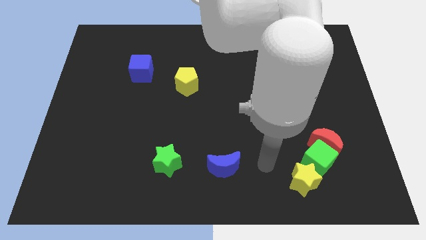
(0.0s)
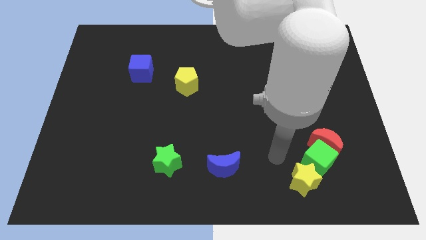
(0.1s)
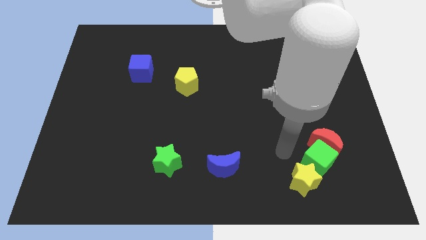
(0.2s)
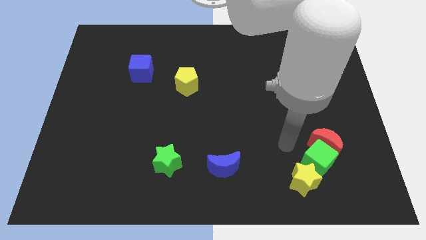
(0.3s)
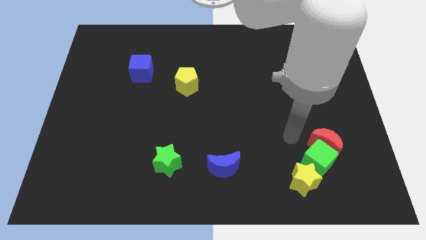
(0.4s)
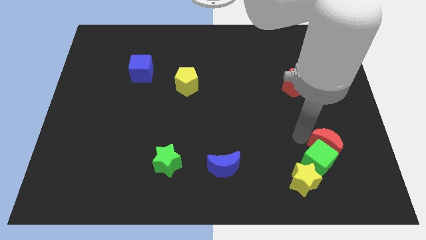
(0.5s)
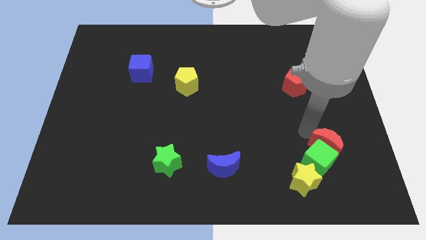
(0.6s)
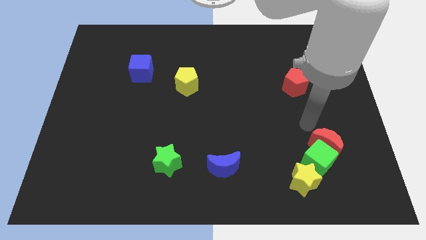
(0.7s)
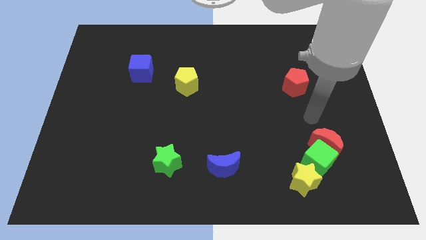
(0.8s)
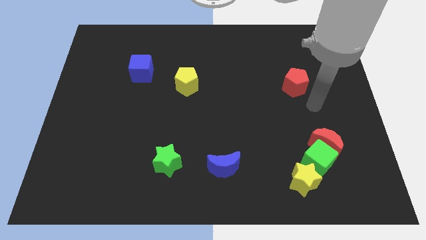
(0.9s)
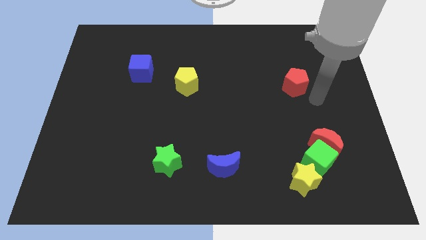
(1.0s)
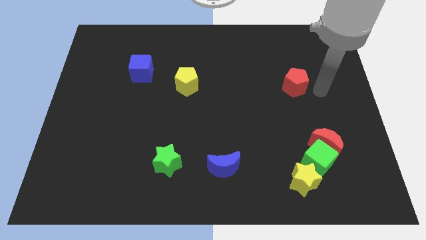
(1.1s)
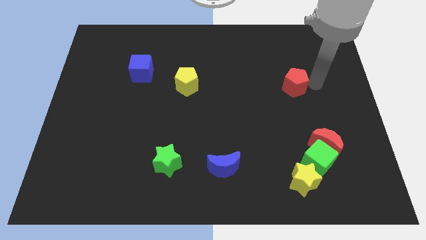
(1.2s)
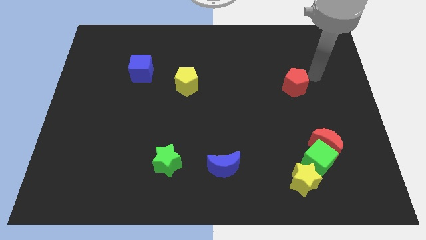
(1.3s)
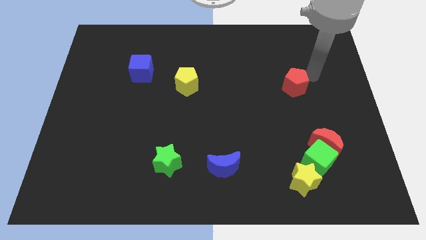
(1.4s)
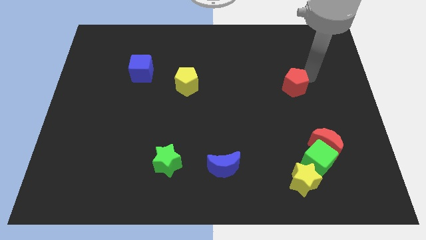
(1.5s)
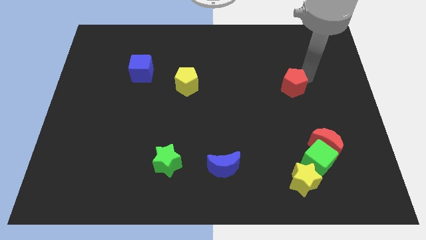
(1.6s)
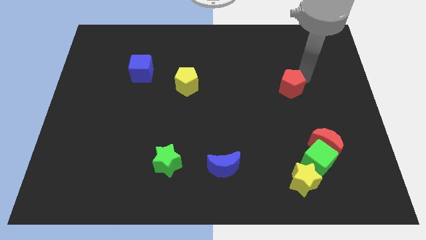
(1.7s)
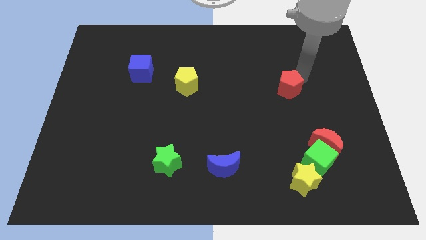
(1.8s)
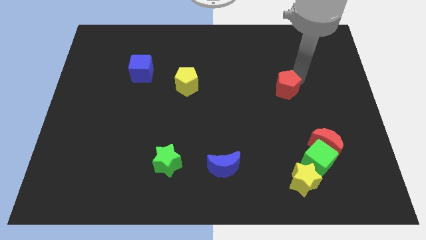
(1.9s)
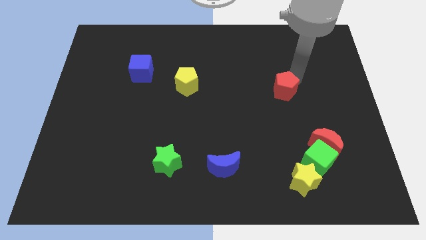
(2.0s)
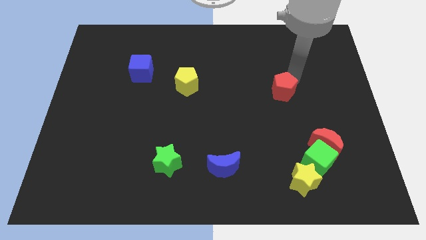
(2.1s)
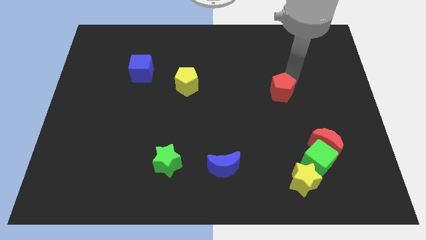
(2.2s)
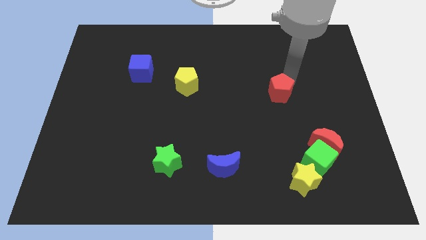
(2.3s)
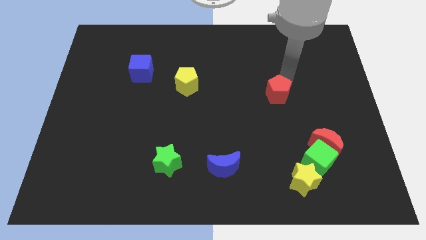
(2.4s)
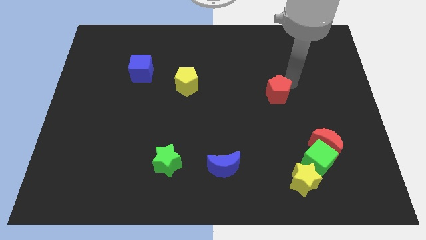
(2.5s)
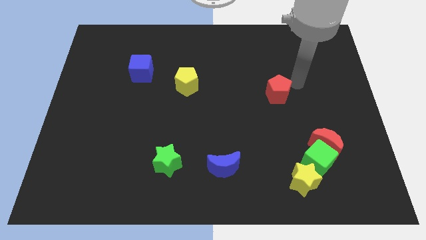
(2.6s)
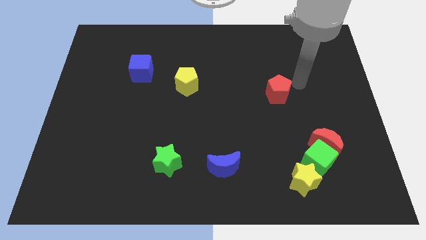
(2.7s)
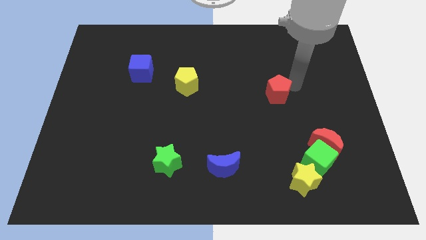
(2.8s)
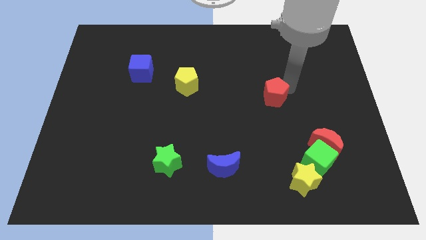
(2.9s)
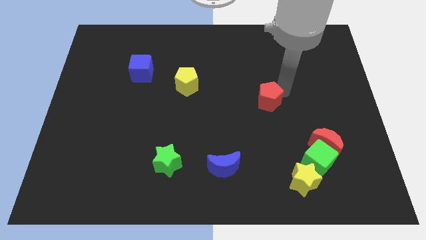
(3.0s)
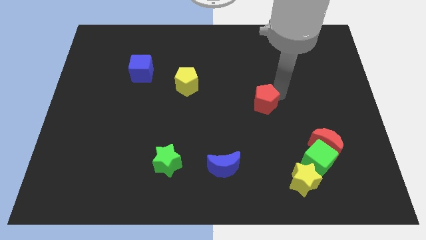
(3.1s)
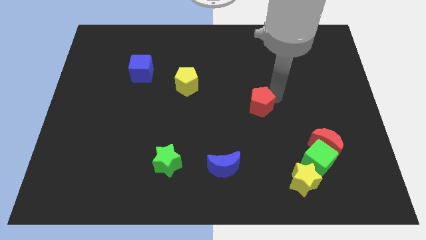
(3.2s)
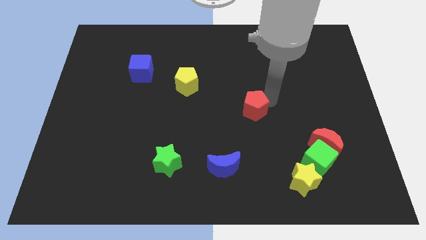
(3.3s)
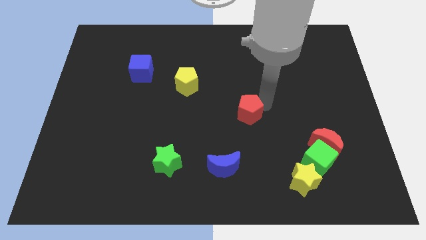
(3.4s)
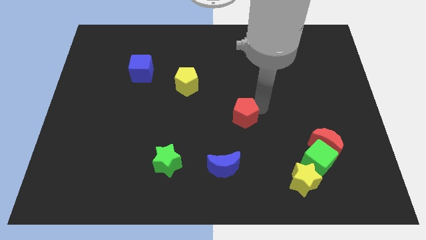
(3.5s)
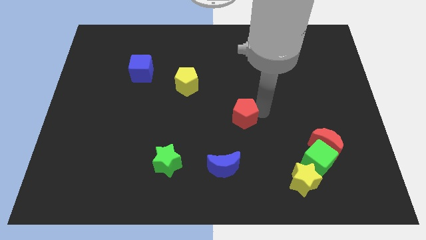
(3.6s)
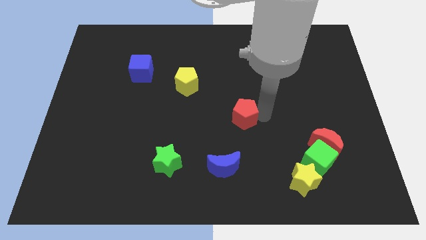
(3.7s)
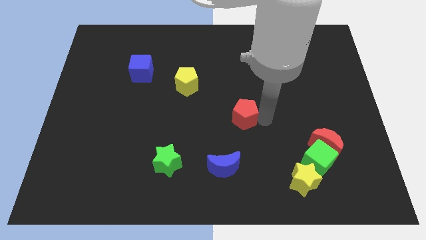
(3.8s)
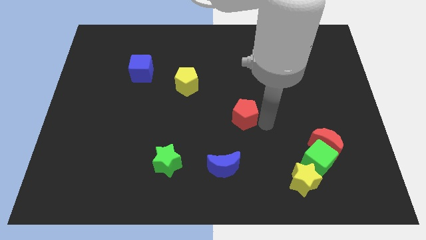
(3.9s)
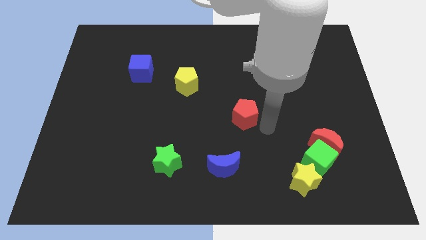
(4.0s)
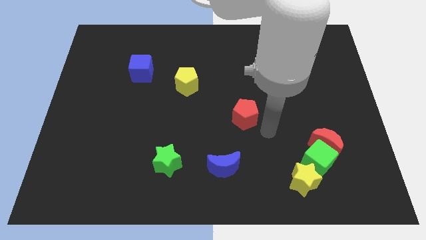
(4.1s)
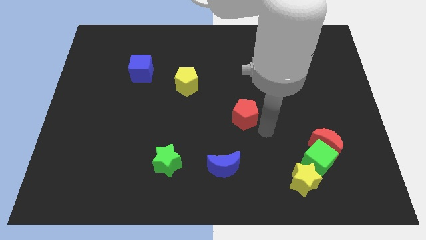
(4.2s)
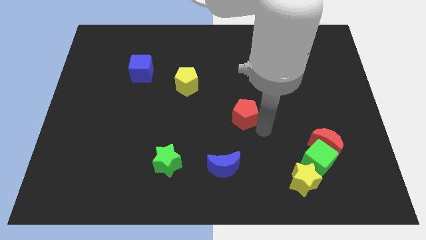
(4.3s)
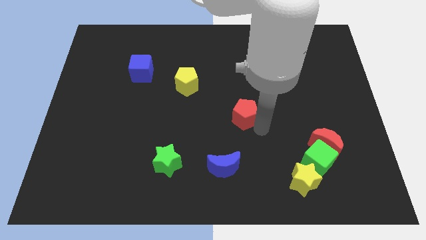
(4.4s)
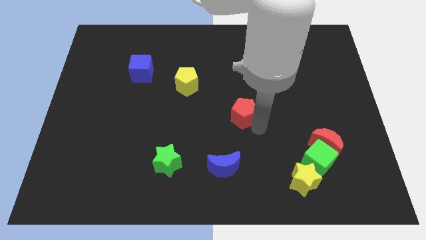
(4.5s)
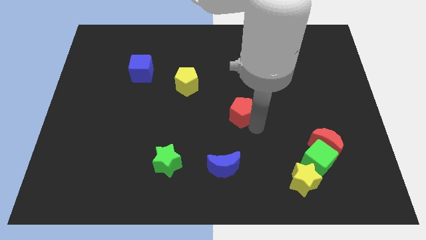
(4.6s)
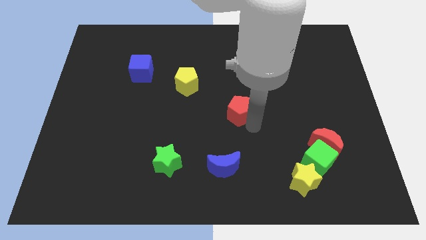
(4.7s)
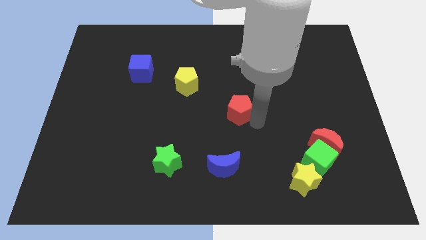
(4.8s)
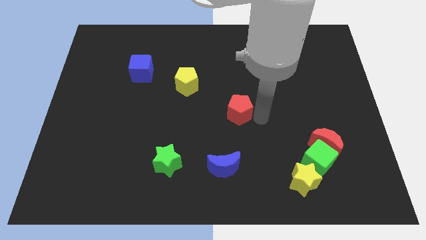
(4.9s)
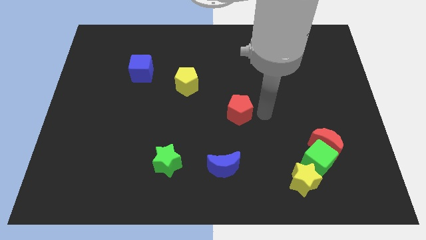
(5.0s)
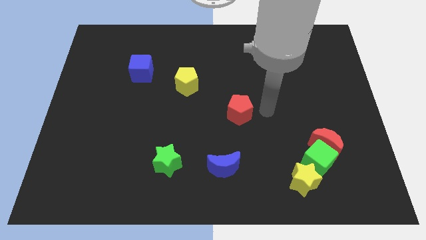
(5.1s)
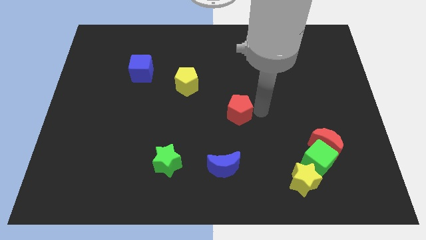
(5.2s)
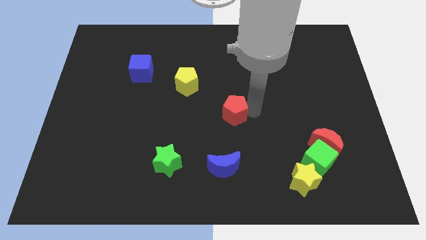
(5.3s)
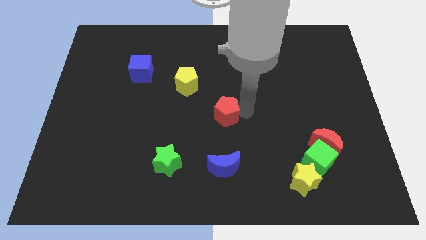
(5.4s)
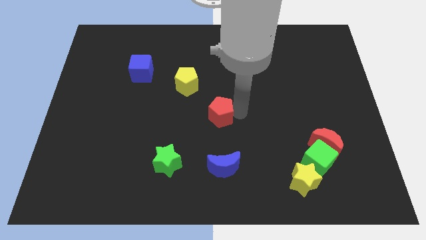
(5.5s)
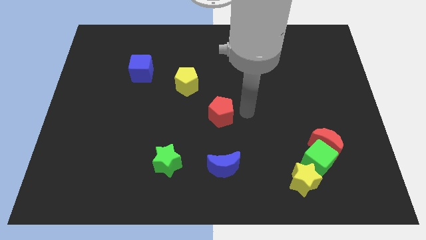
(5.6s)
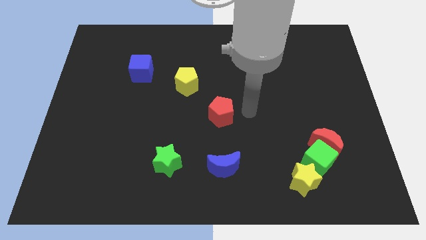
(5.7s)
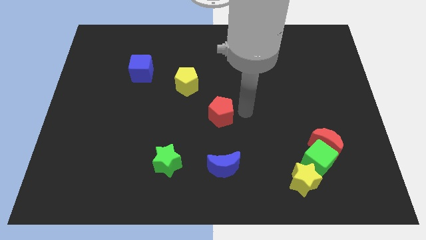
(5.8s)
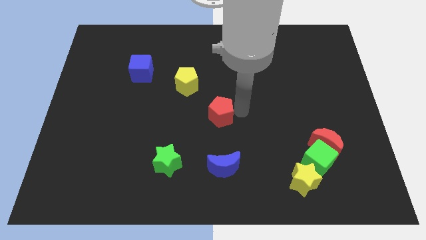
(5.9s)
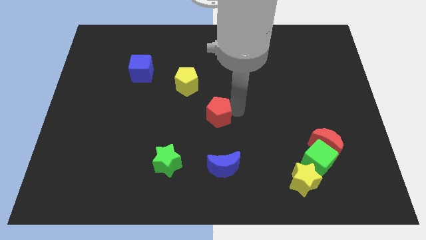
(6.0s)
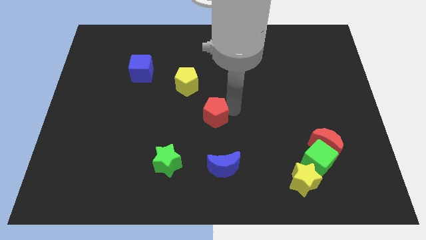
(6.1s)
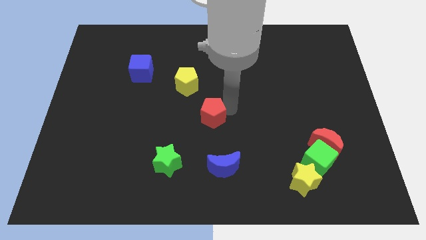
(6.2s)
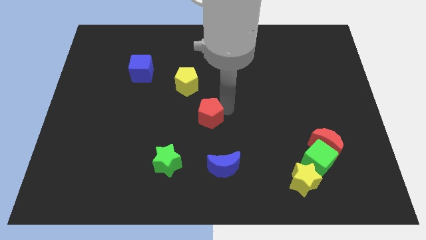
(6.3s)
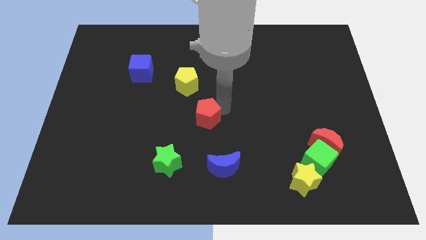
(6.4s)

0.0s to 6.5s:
move the red pentagon to the bottom of the yellow pentagon

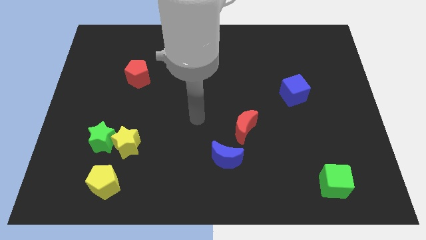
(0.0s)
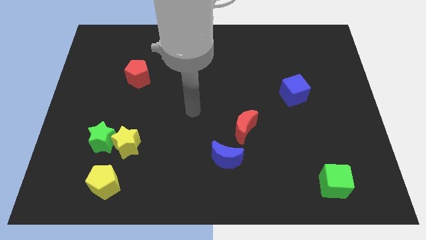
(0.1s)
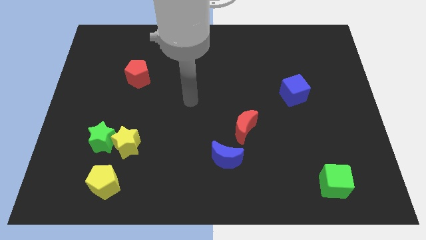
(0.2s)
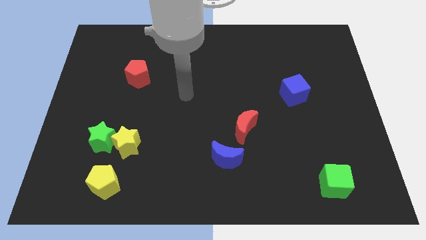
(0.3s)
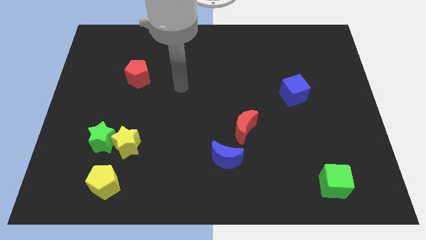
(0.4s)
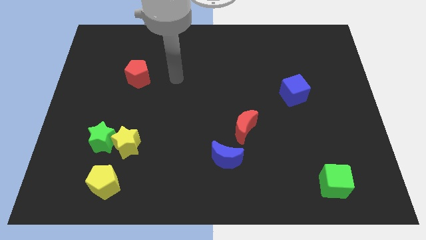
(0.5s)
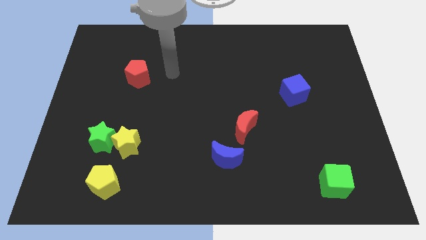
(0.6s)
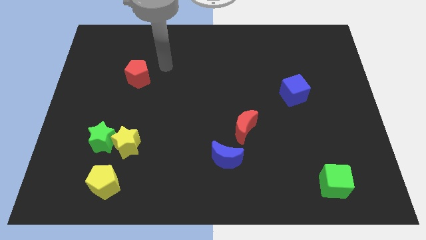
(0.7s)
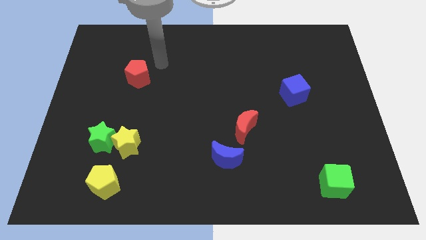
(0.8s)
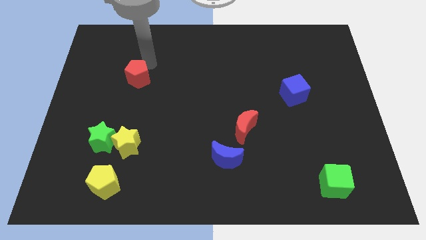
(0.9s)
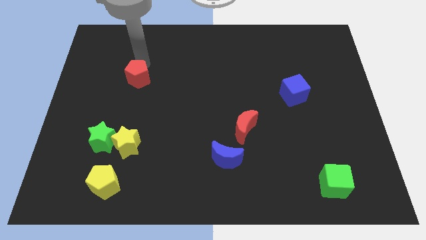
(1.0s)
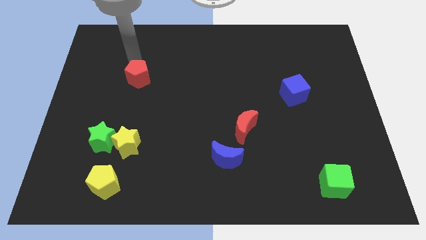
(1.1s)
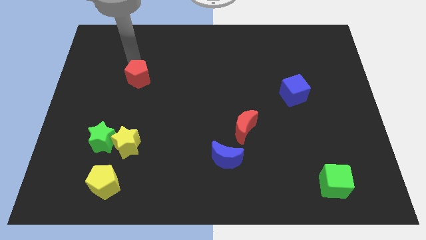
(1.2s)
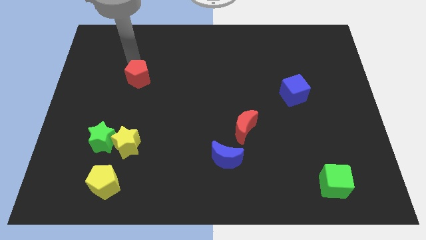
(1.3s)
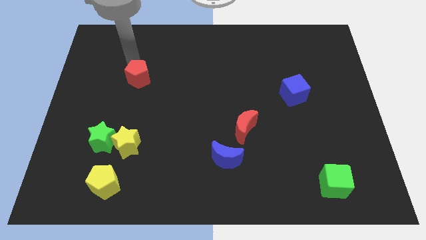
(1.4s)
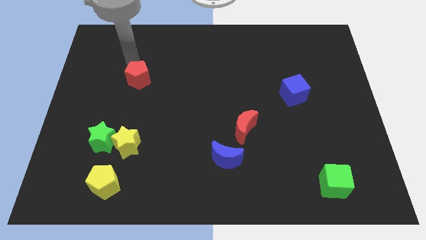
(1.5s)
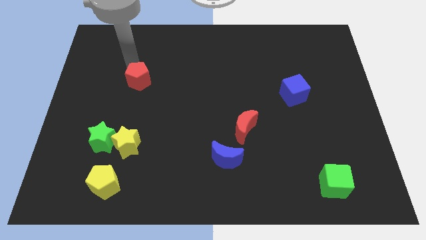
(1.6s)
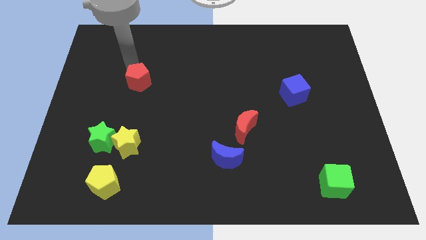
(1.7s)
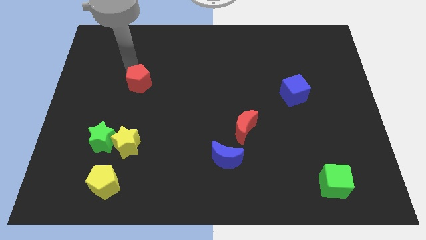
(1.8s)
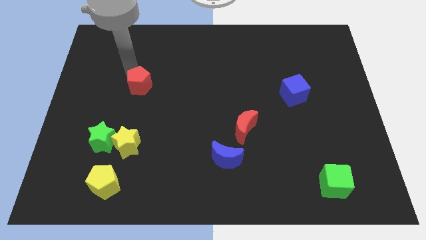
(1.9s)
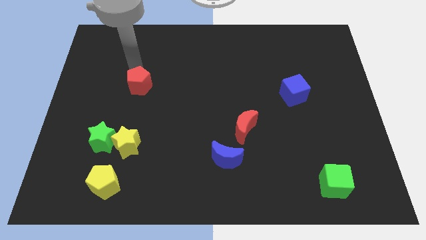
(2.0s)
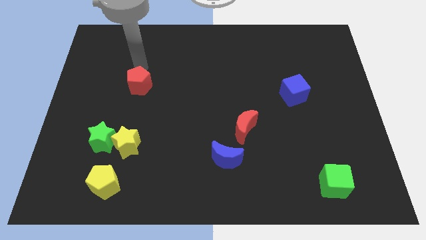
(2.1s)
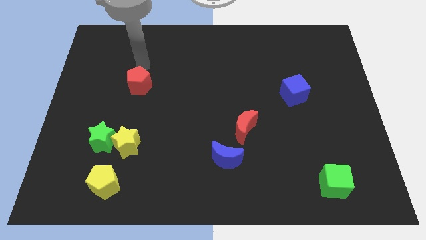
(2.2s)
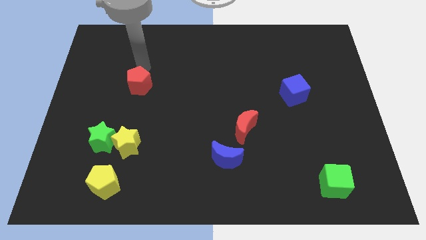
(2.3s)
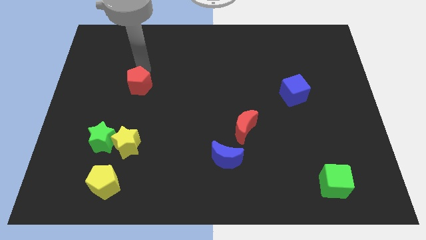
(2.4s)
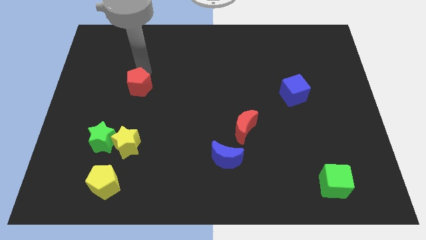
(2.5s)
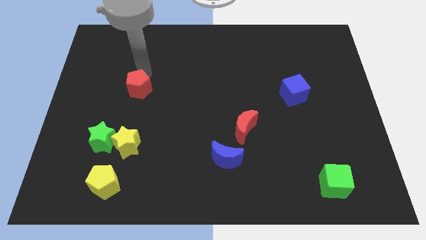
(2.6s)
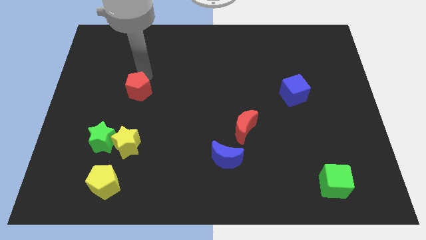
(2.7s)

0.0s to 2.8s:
slide the red pentagon to the top of the yellow star
